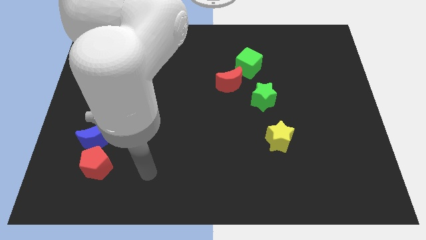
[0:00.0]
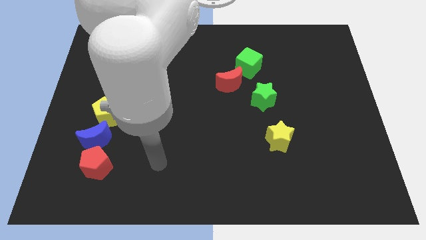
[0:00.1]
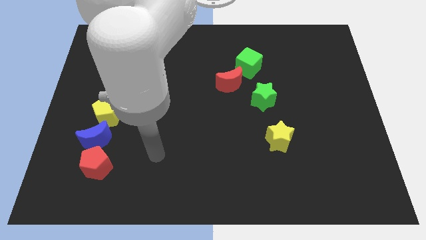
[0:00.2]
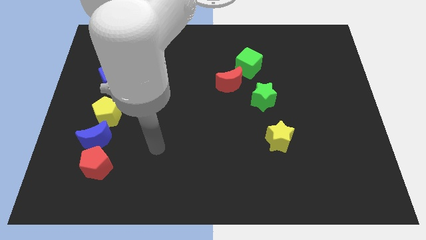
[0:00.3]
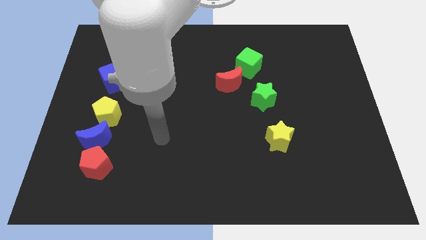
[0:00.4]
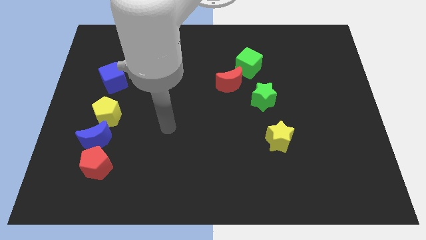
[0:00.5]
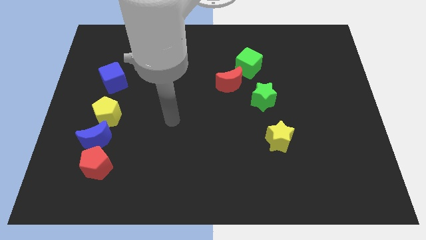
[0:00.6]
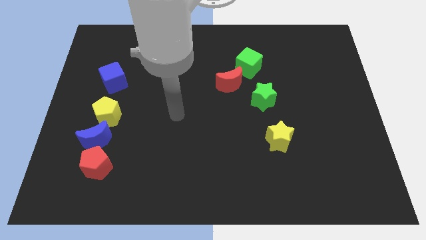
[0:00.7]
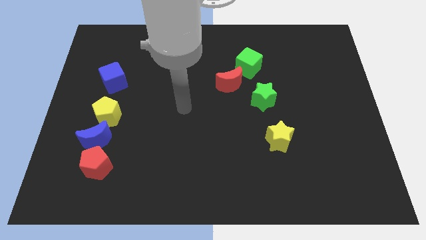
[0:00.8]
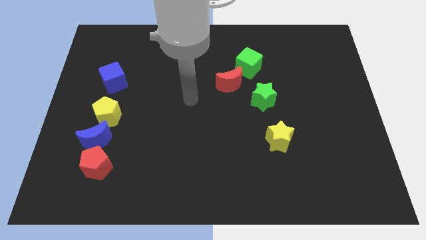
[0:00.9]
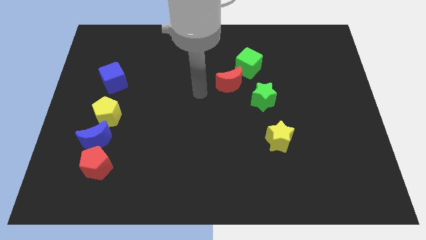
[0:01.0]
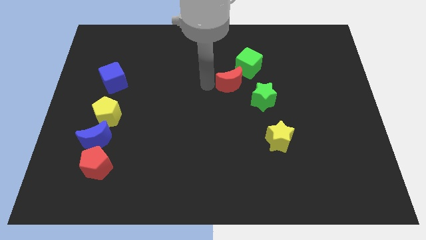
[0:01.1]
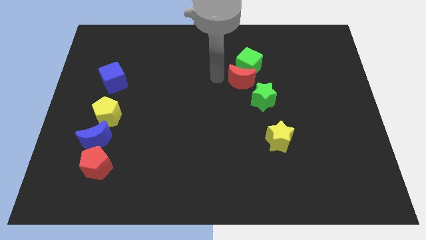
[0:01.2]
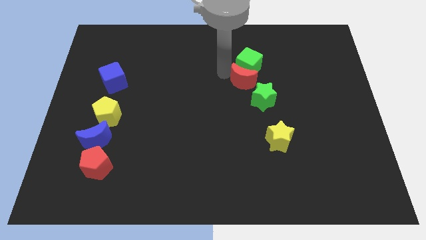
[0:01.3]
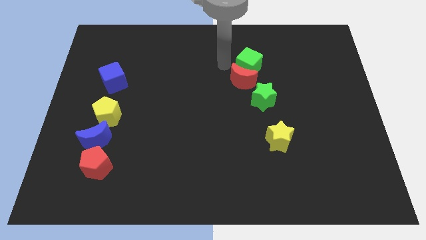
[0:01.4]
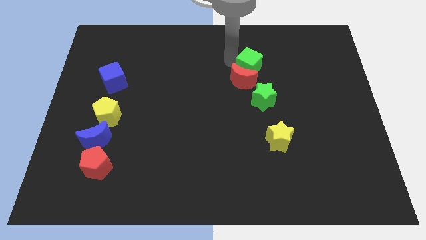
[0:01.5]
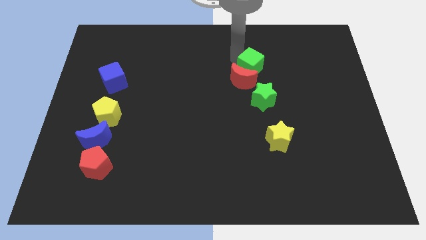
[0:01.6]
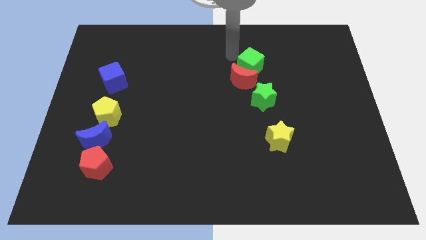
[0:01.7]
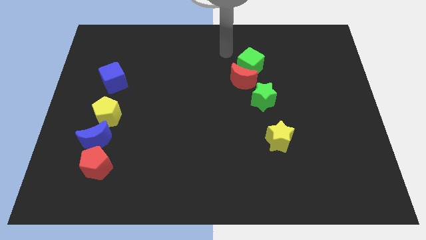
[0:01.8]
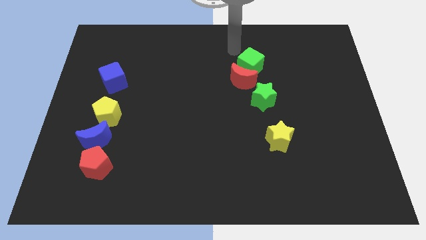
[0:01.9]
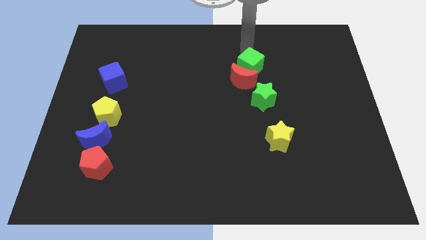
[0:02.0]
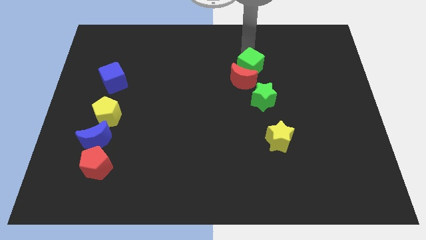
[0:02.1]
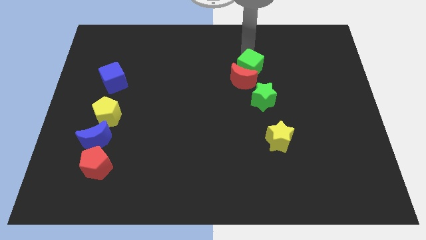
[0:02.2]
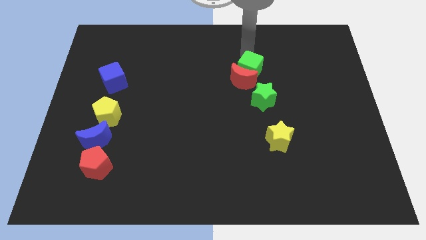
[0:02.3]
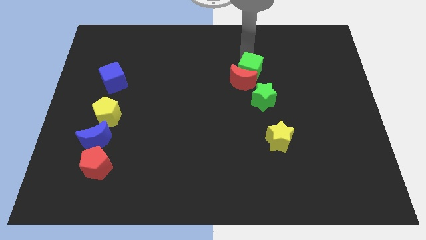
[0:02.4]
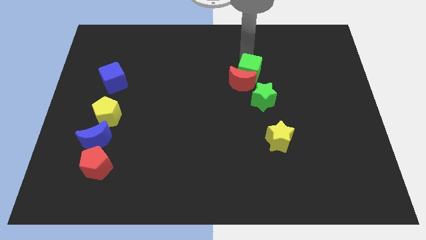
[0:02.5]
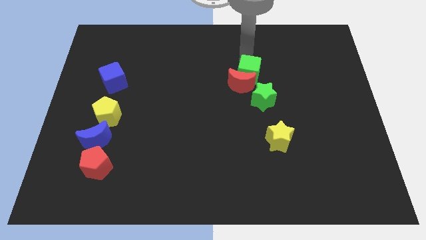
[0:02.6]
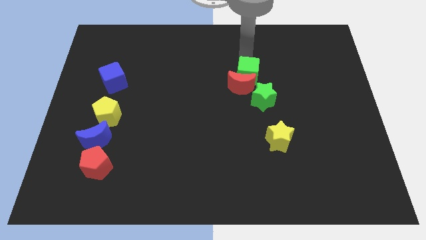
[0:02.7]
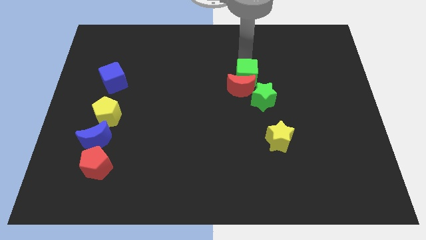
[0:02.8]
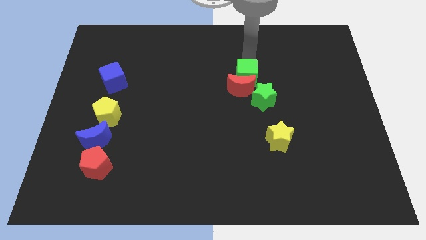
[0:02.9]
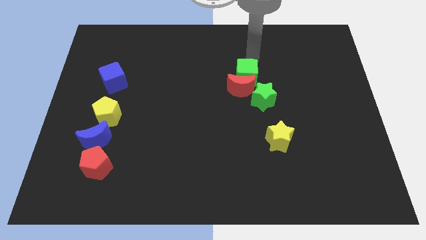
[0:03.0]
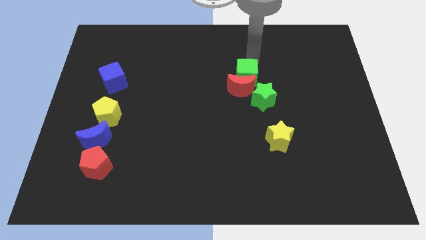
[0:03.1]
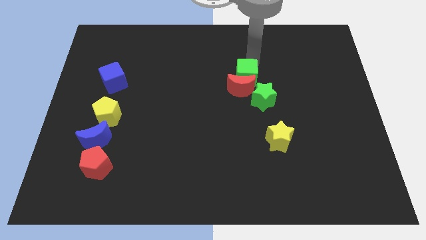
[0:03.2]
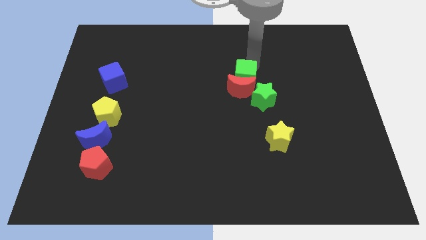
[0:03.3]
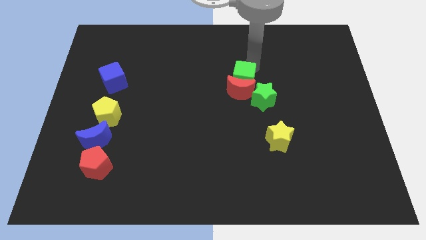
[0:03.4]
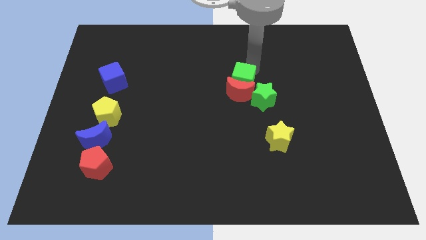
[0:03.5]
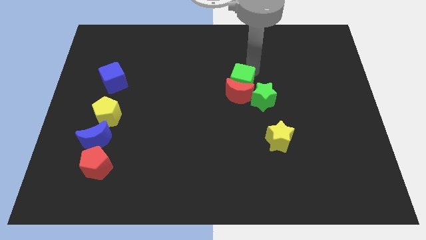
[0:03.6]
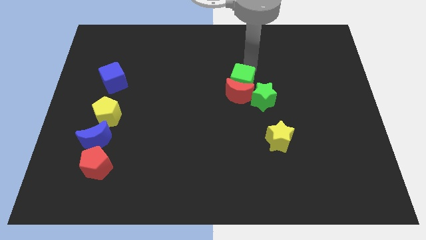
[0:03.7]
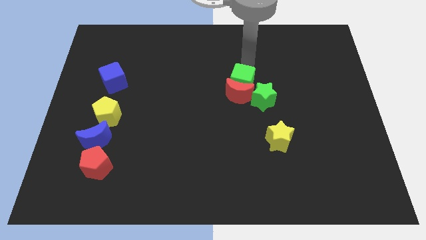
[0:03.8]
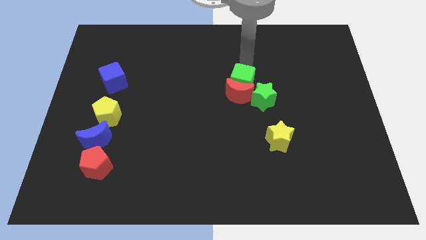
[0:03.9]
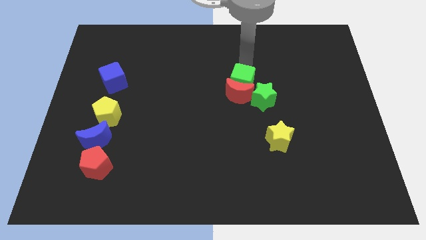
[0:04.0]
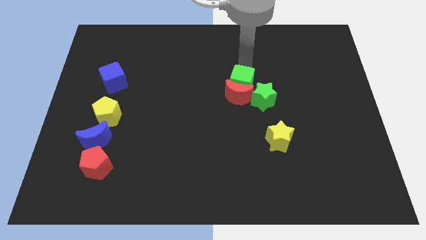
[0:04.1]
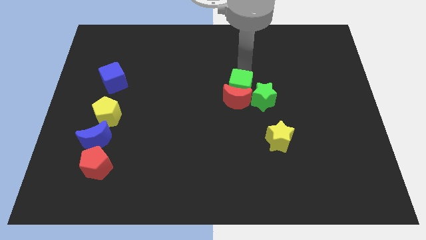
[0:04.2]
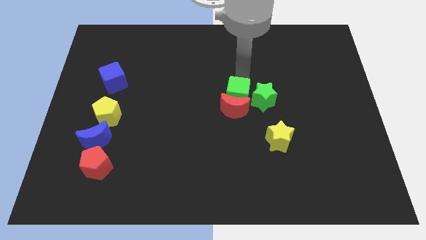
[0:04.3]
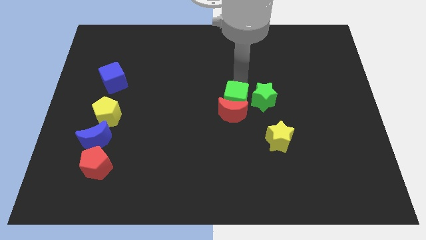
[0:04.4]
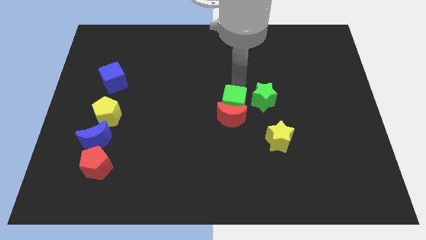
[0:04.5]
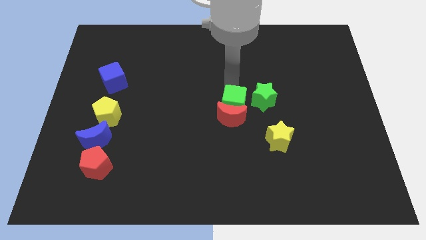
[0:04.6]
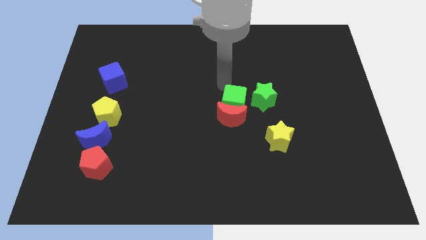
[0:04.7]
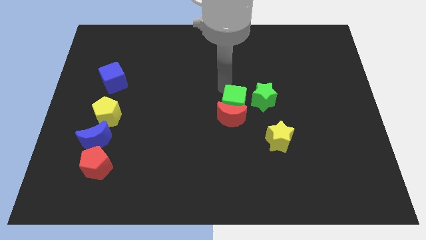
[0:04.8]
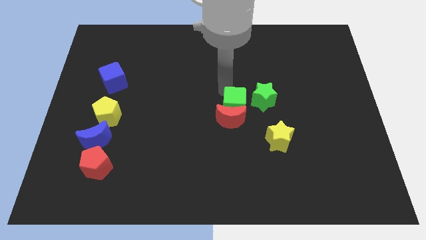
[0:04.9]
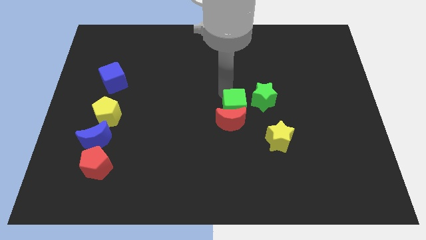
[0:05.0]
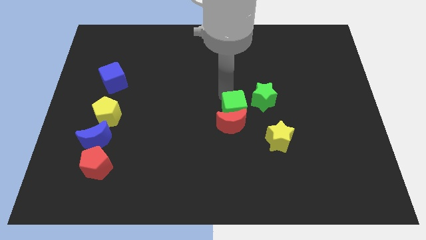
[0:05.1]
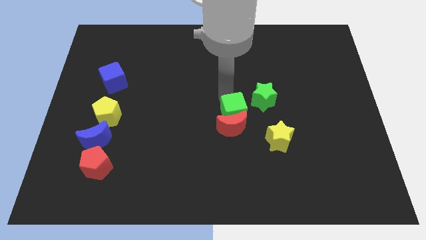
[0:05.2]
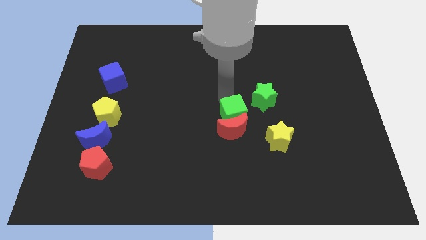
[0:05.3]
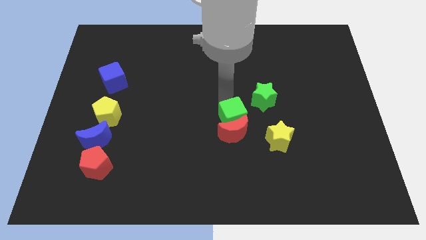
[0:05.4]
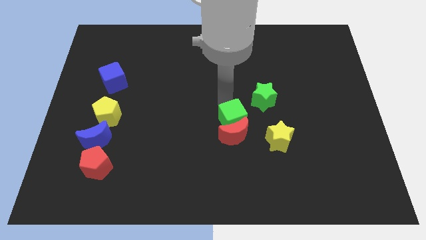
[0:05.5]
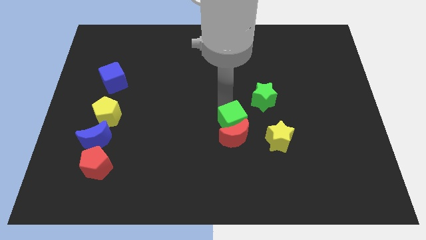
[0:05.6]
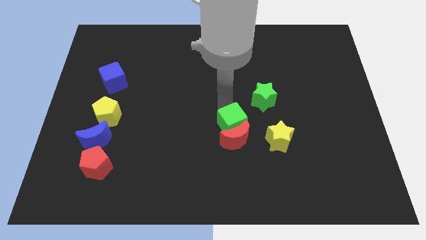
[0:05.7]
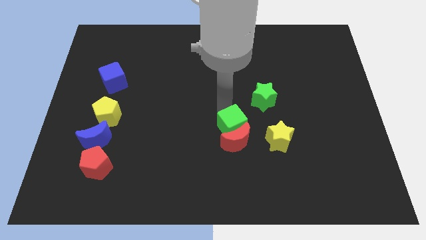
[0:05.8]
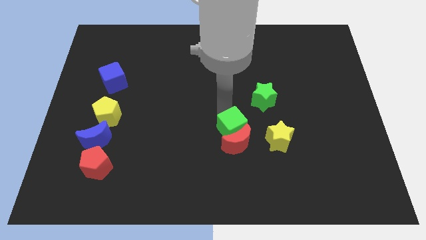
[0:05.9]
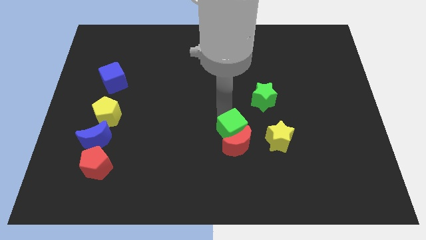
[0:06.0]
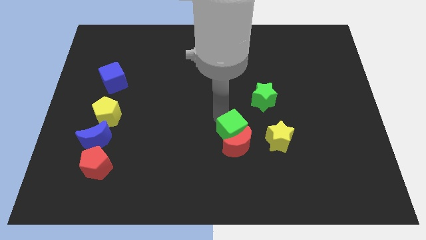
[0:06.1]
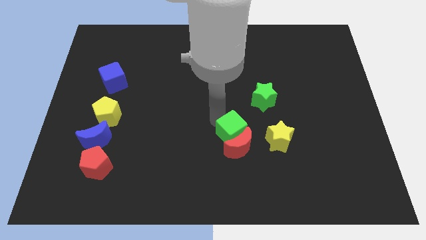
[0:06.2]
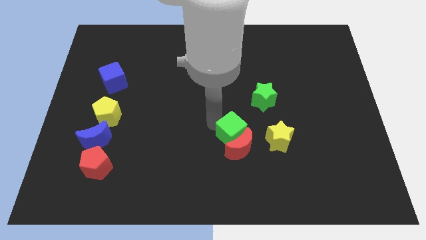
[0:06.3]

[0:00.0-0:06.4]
slide the green cube down

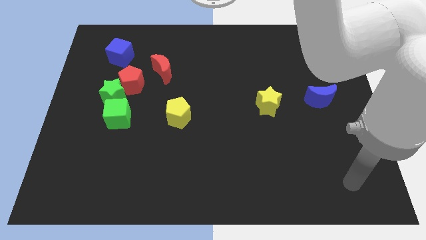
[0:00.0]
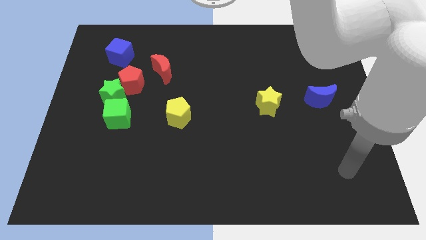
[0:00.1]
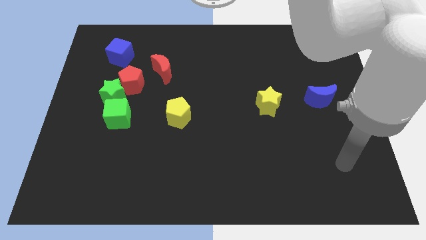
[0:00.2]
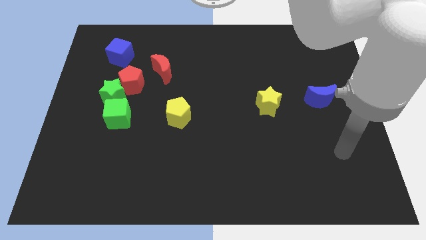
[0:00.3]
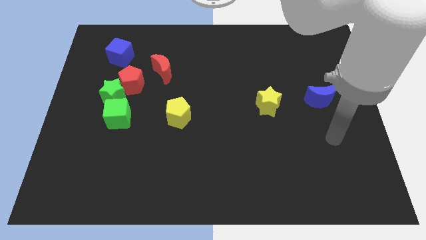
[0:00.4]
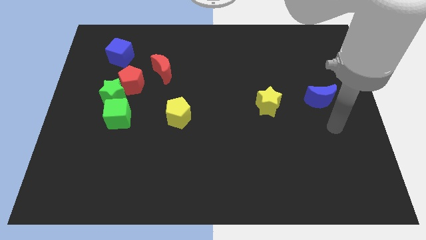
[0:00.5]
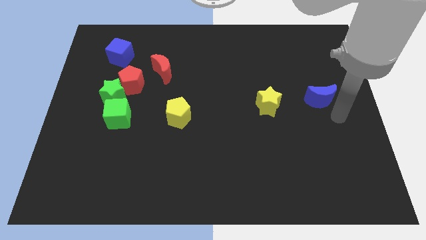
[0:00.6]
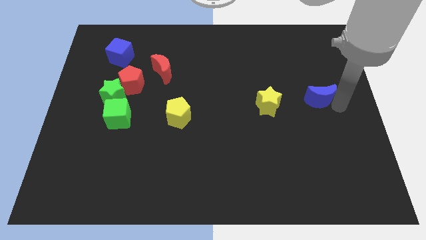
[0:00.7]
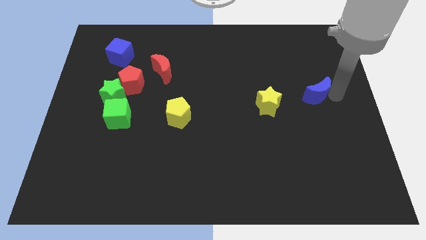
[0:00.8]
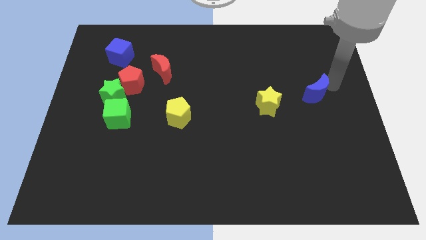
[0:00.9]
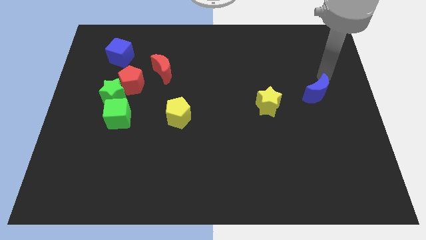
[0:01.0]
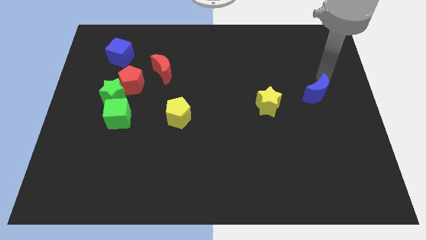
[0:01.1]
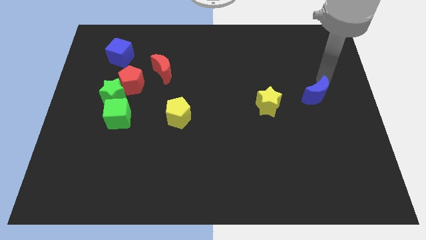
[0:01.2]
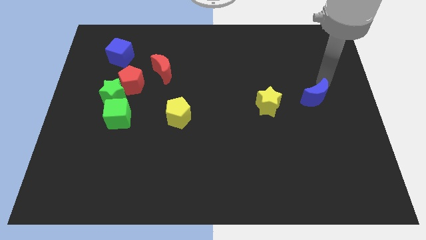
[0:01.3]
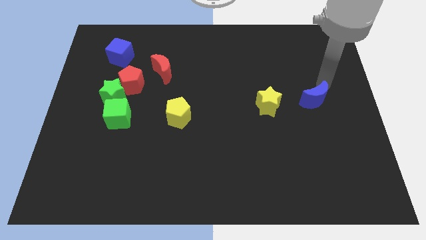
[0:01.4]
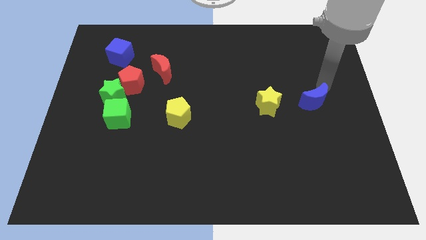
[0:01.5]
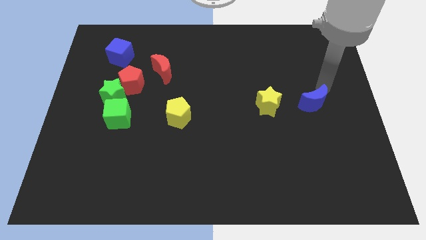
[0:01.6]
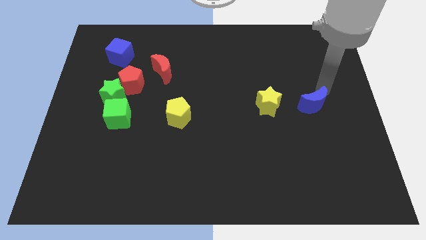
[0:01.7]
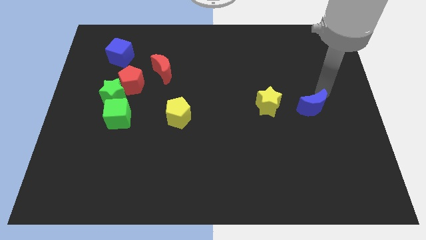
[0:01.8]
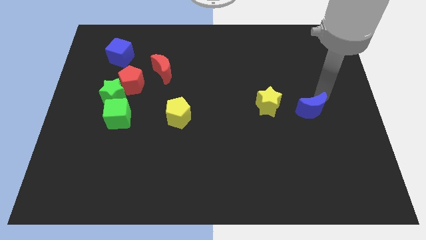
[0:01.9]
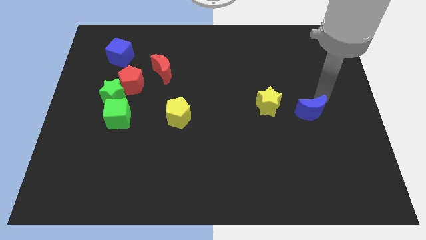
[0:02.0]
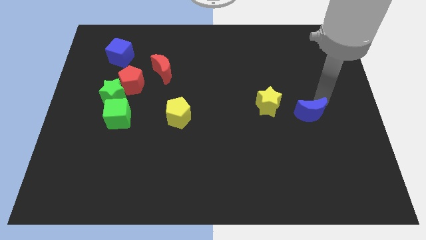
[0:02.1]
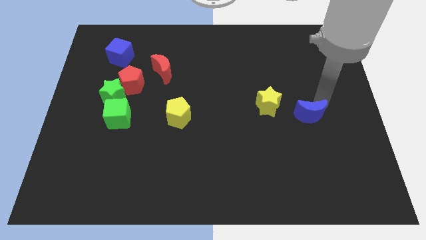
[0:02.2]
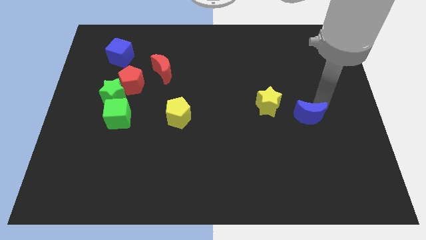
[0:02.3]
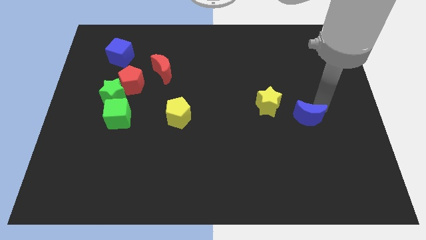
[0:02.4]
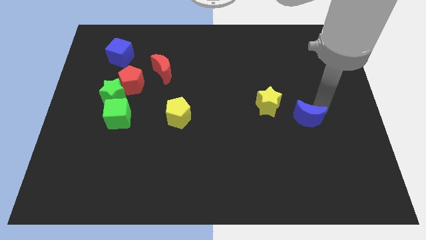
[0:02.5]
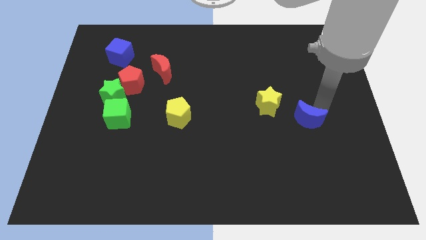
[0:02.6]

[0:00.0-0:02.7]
slide the blue moon down and then to the left slightly
